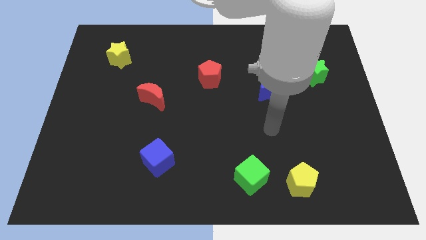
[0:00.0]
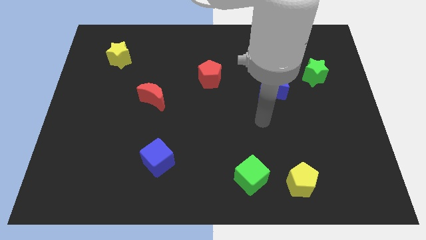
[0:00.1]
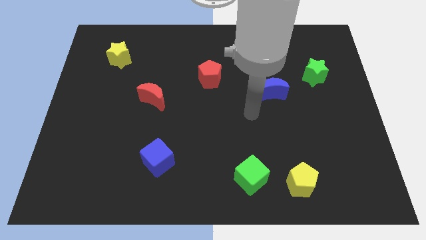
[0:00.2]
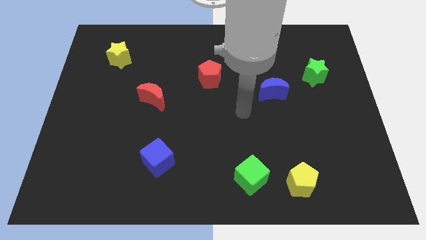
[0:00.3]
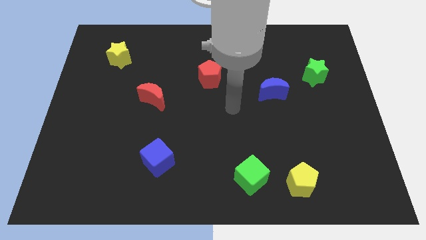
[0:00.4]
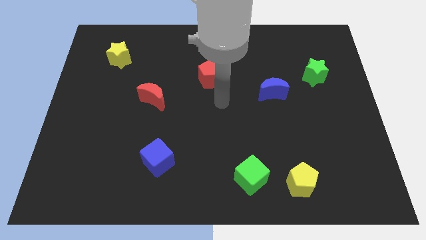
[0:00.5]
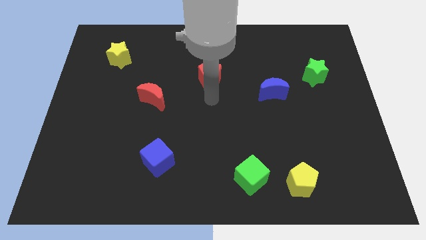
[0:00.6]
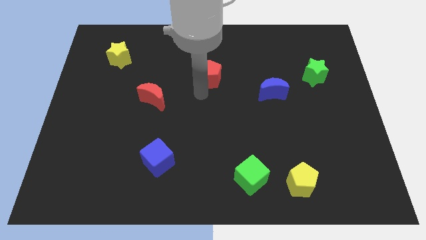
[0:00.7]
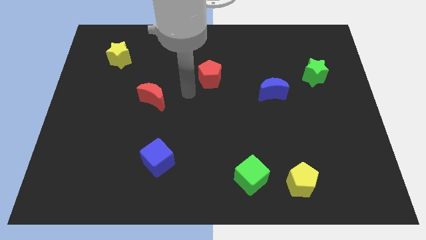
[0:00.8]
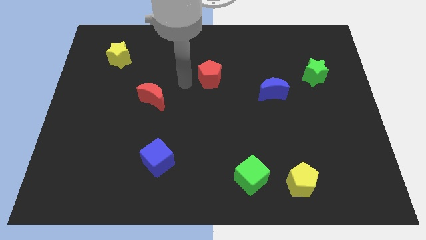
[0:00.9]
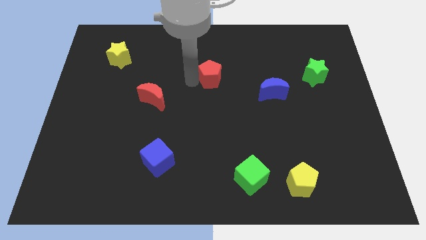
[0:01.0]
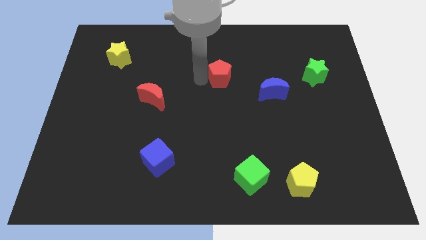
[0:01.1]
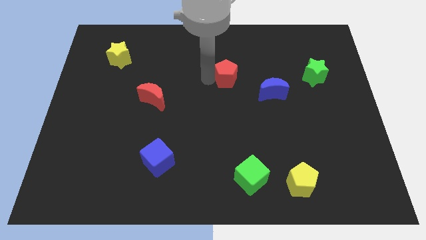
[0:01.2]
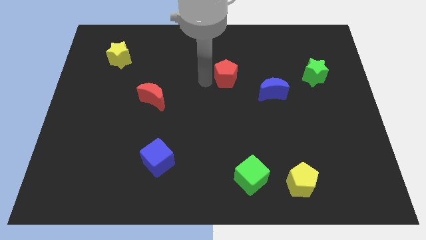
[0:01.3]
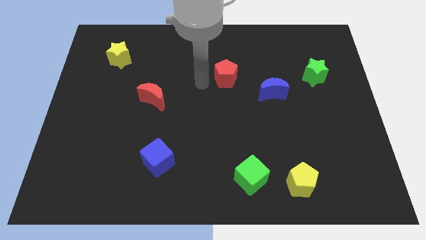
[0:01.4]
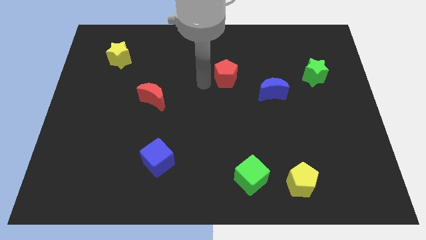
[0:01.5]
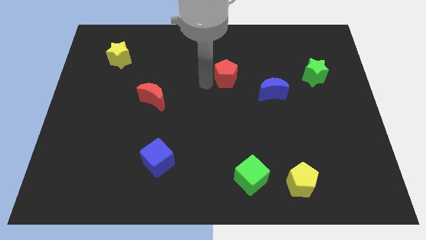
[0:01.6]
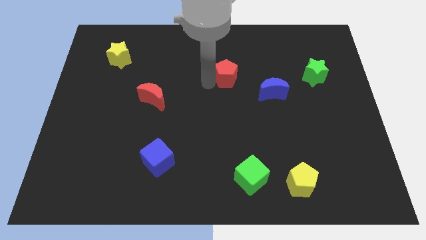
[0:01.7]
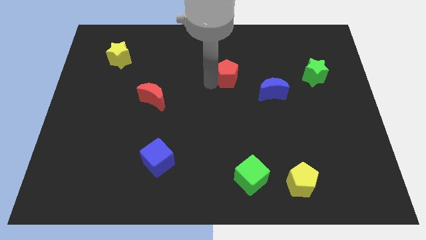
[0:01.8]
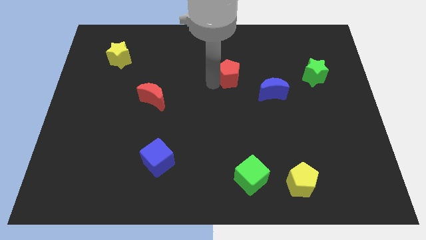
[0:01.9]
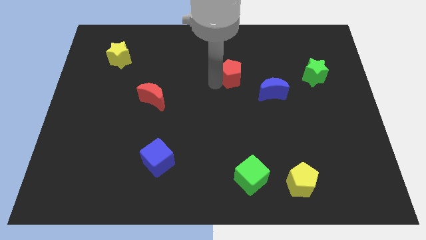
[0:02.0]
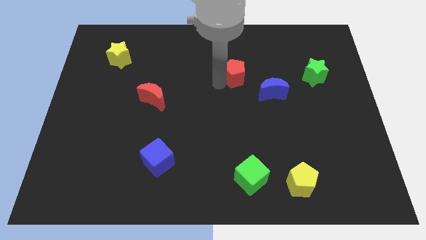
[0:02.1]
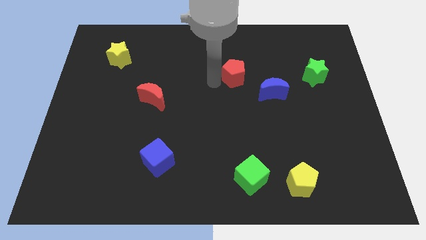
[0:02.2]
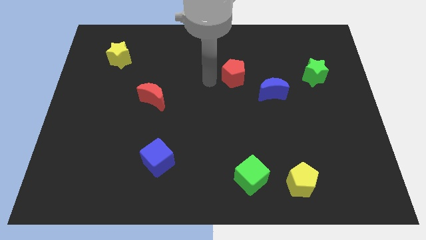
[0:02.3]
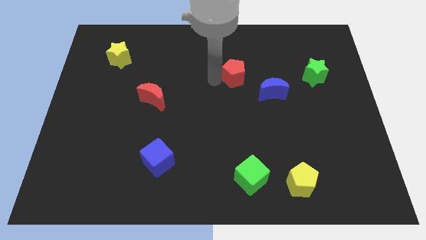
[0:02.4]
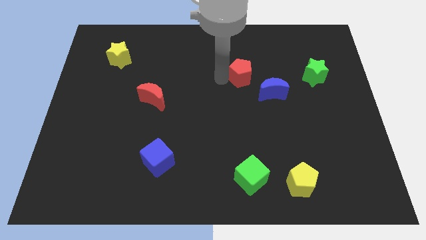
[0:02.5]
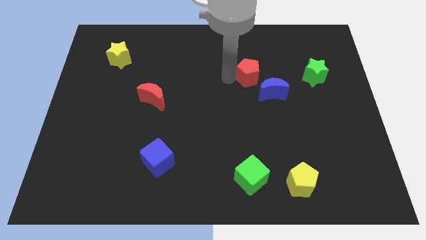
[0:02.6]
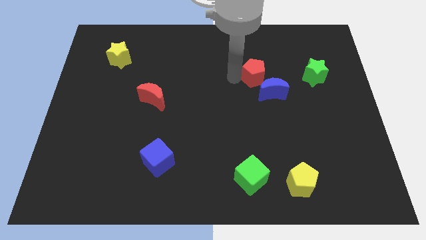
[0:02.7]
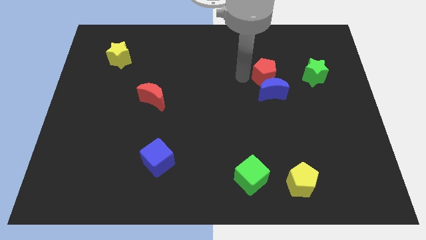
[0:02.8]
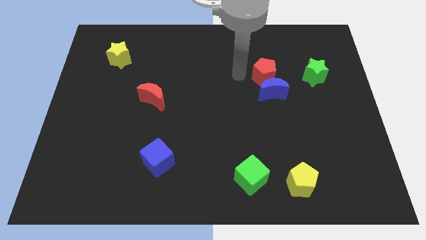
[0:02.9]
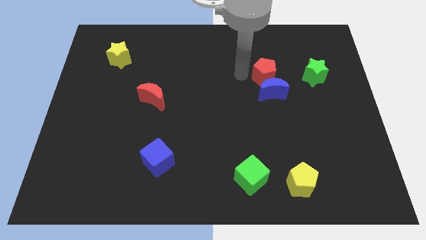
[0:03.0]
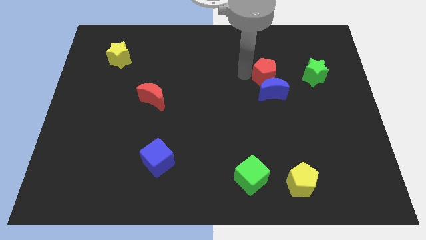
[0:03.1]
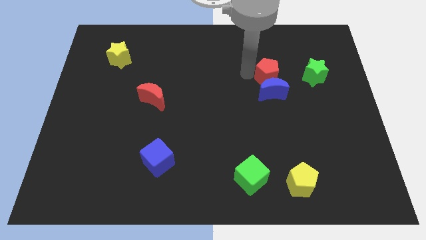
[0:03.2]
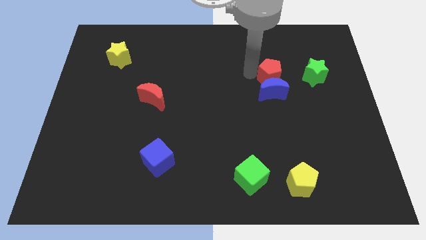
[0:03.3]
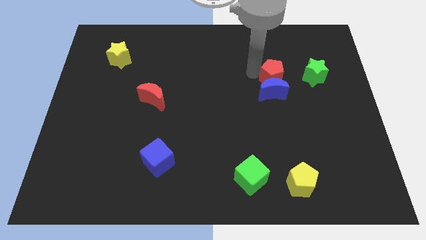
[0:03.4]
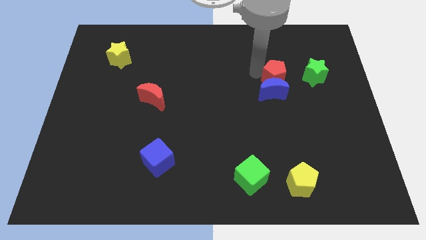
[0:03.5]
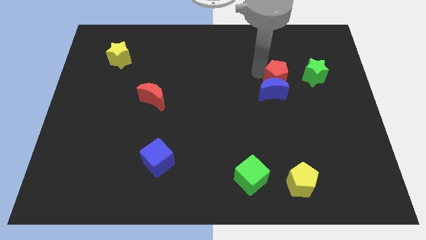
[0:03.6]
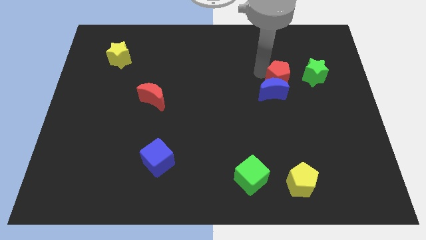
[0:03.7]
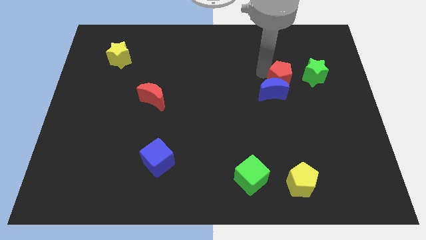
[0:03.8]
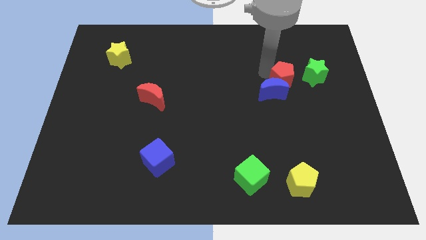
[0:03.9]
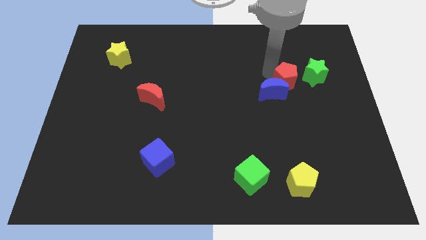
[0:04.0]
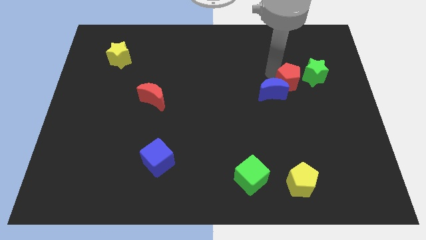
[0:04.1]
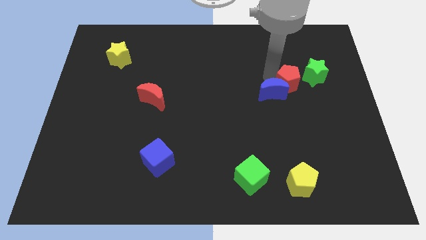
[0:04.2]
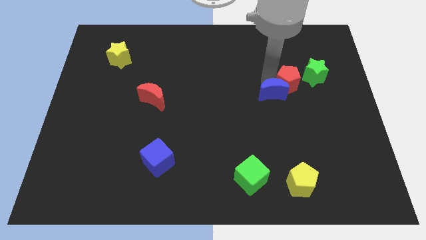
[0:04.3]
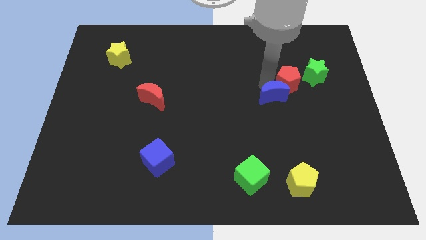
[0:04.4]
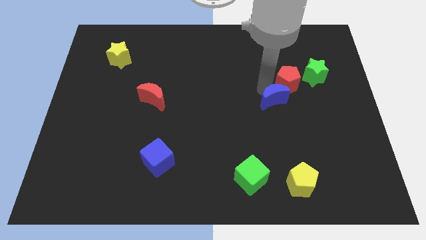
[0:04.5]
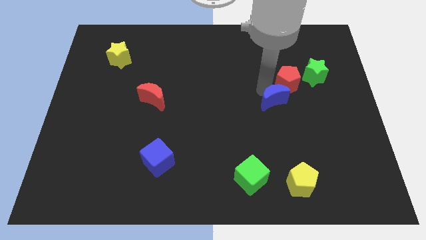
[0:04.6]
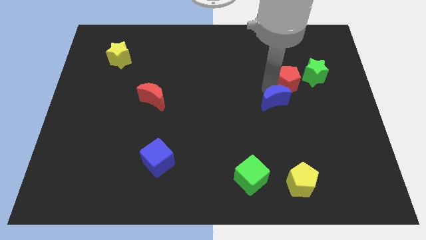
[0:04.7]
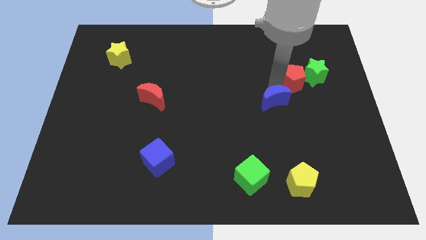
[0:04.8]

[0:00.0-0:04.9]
move the red pentagon towards the green star

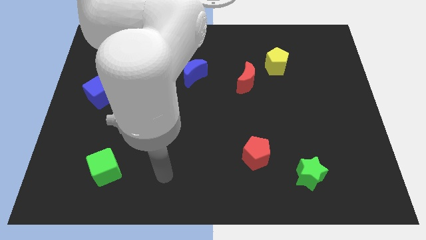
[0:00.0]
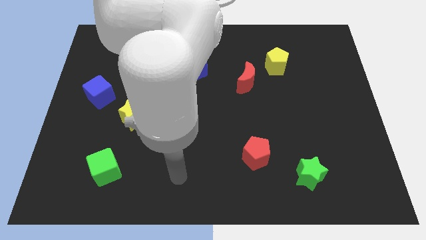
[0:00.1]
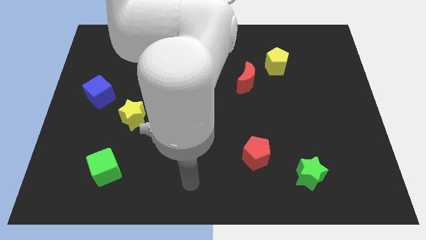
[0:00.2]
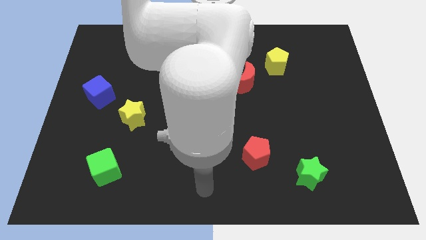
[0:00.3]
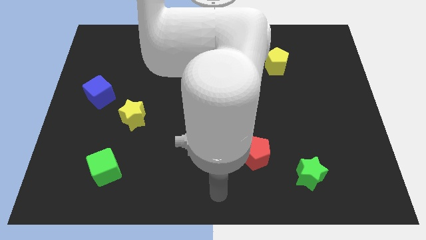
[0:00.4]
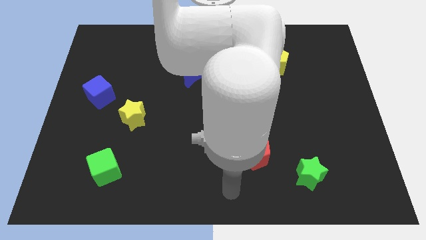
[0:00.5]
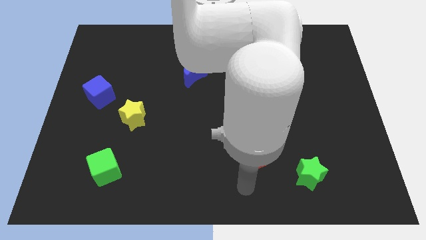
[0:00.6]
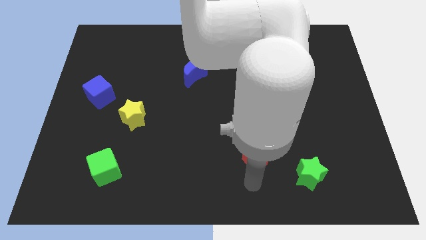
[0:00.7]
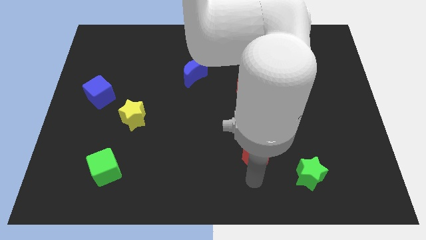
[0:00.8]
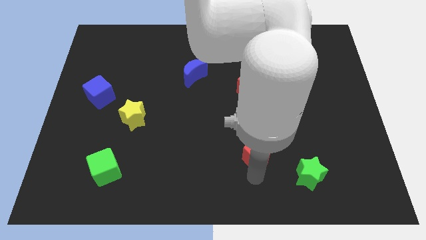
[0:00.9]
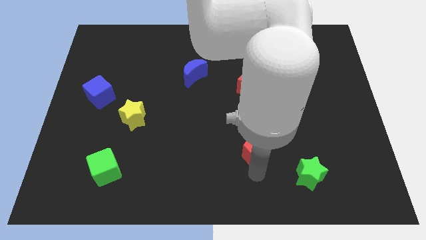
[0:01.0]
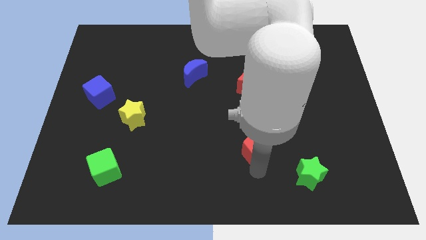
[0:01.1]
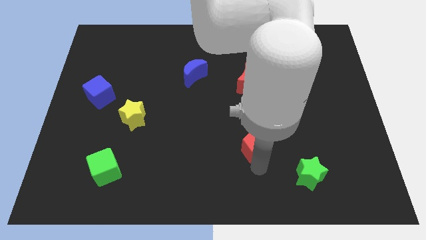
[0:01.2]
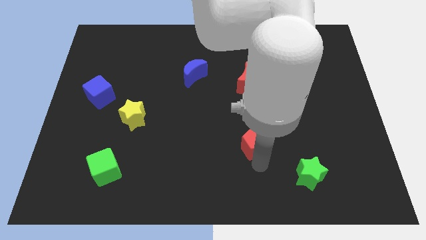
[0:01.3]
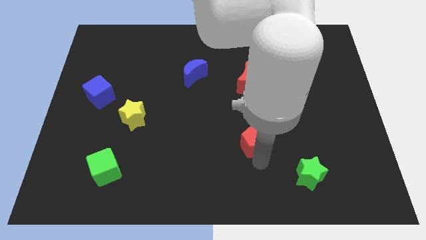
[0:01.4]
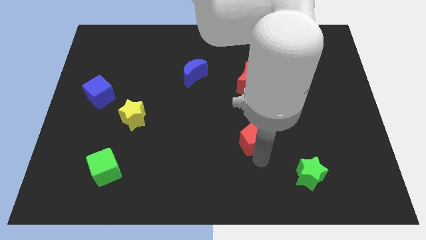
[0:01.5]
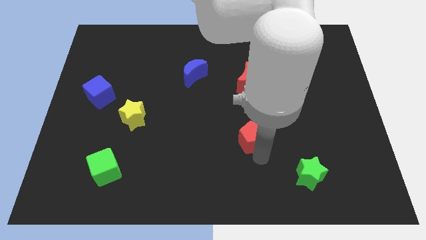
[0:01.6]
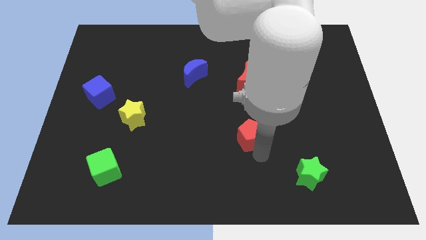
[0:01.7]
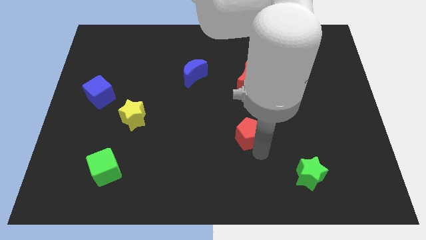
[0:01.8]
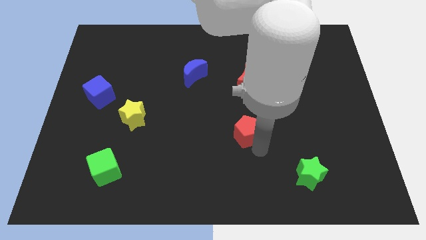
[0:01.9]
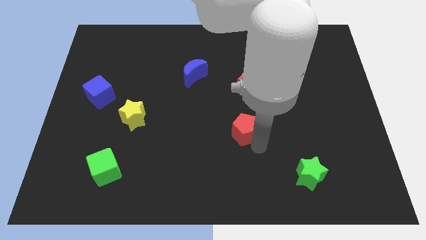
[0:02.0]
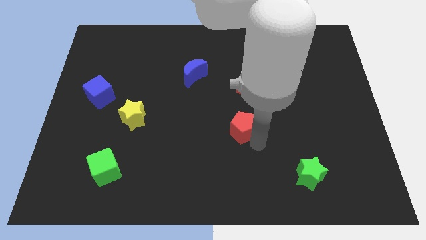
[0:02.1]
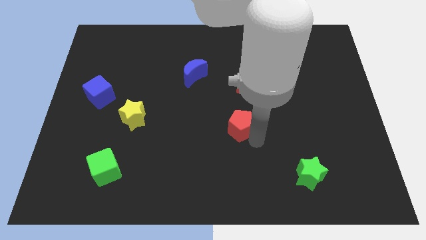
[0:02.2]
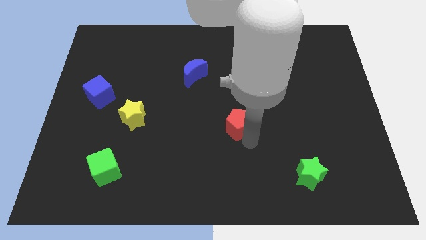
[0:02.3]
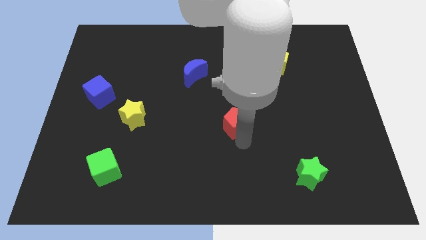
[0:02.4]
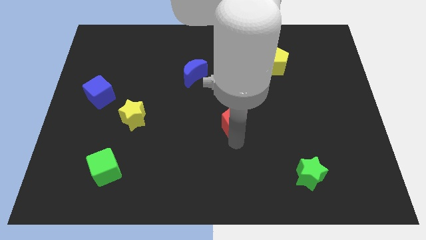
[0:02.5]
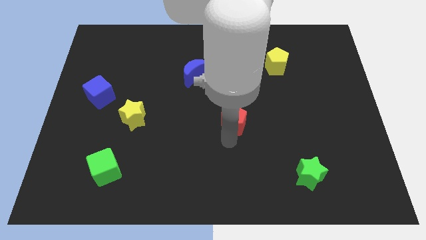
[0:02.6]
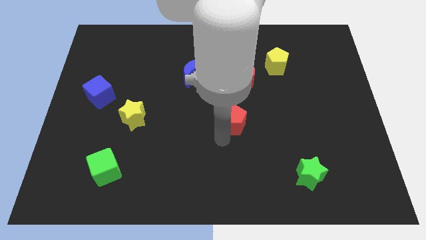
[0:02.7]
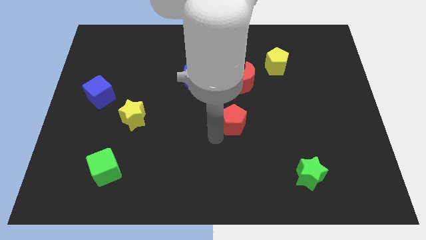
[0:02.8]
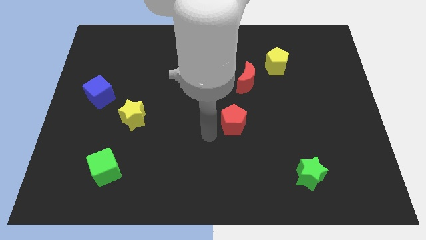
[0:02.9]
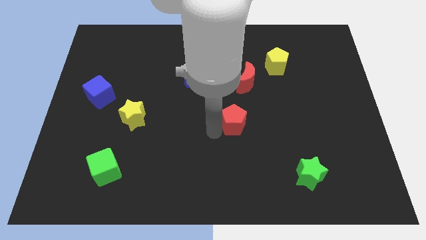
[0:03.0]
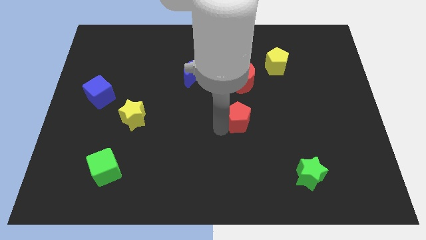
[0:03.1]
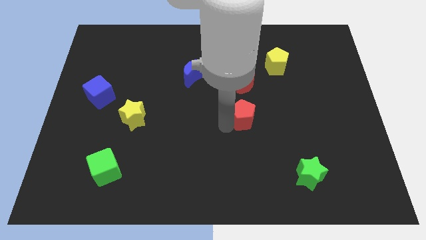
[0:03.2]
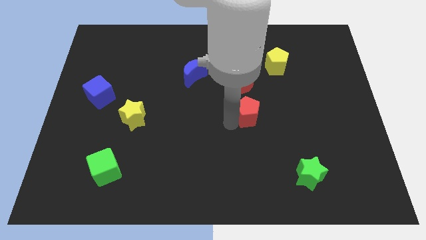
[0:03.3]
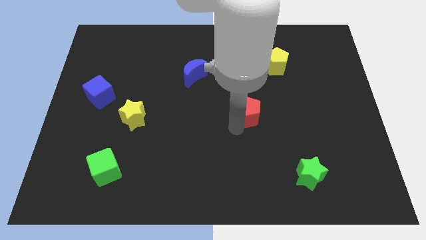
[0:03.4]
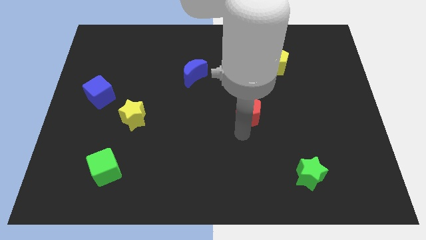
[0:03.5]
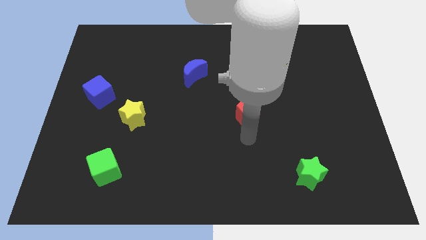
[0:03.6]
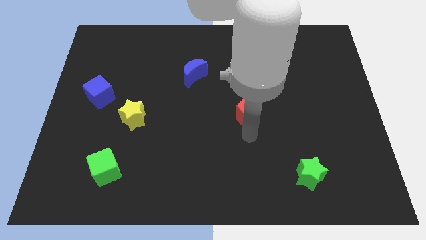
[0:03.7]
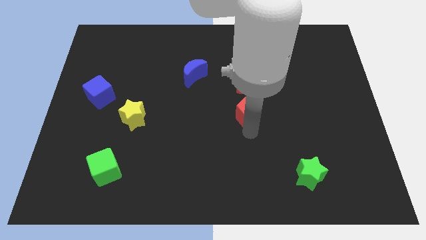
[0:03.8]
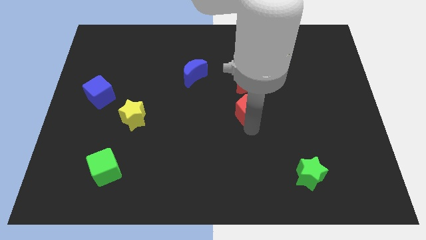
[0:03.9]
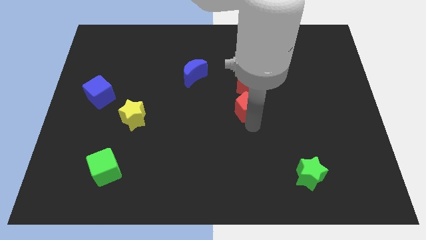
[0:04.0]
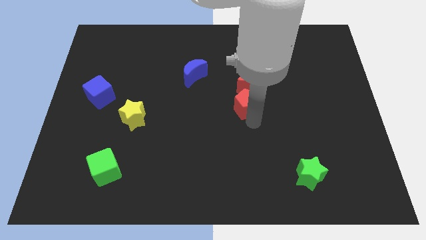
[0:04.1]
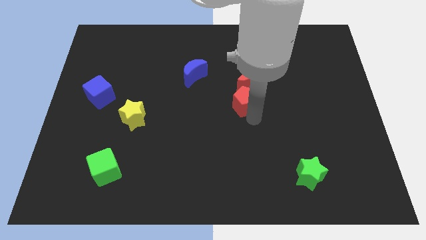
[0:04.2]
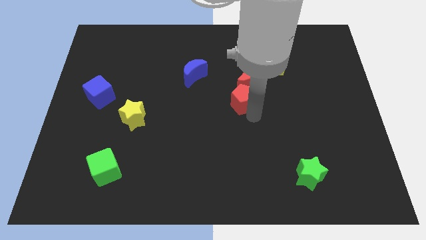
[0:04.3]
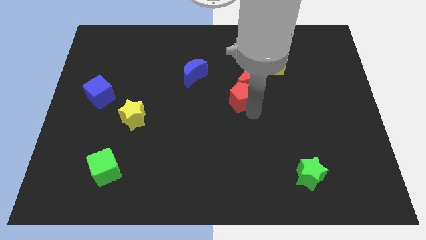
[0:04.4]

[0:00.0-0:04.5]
push the red pentagon to the red moon
